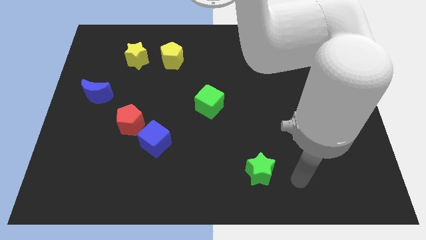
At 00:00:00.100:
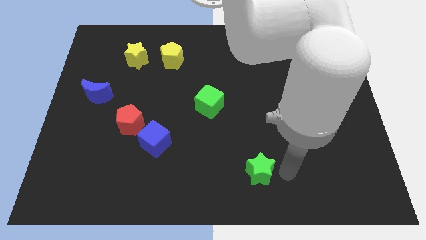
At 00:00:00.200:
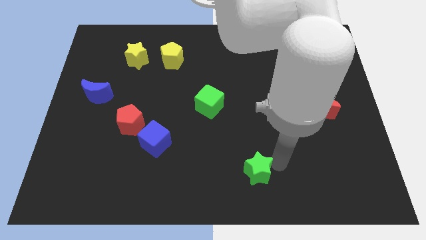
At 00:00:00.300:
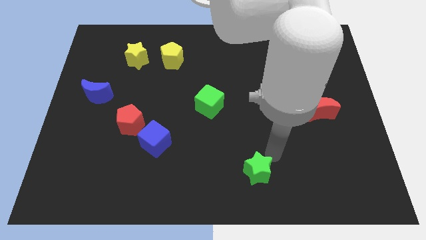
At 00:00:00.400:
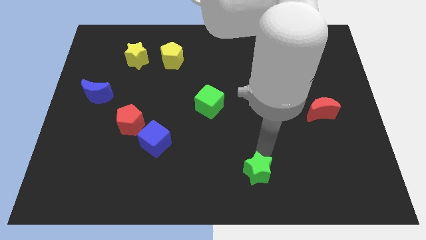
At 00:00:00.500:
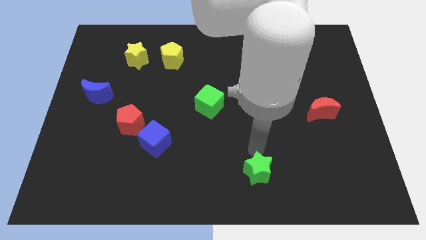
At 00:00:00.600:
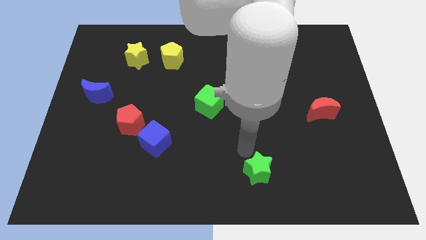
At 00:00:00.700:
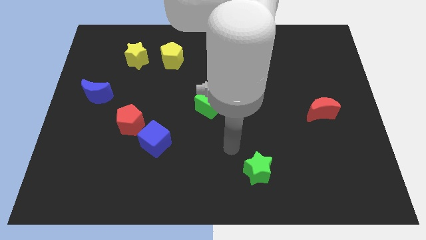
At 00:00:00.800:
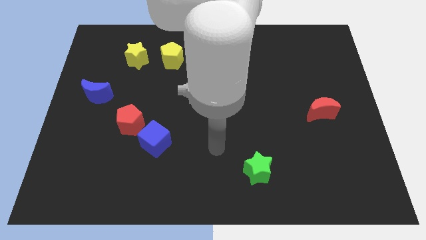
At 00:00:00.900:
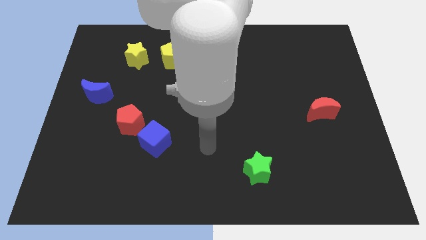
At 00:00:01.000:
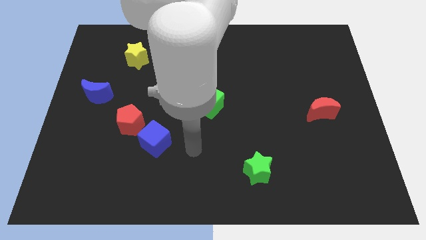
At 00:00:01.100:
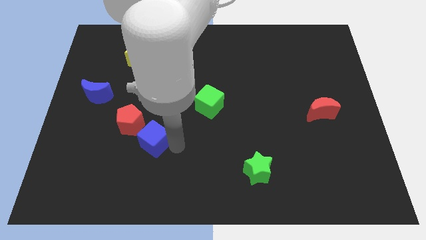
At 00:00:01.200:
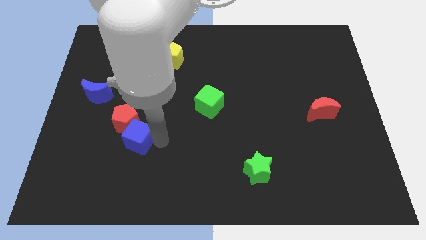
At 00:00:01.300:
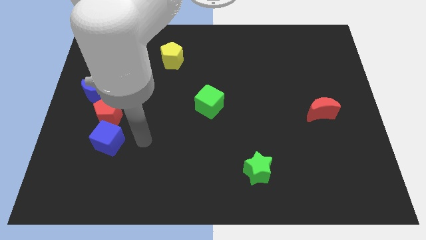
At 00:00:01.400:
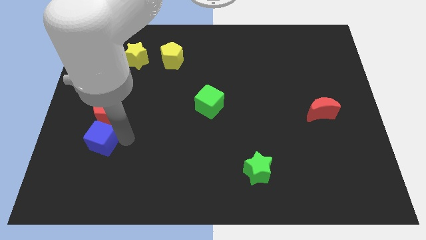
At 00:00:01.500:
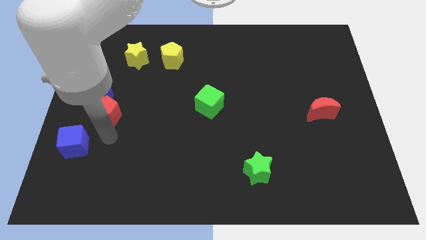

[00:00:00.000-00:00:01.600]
pull the red pentagon apart from the blue cube

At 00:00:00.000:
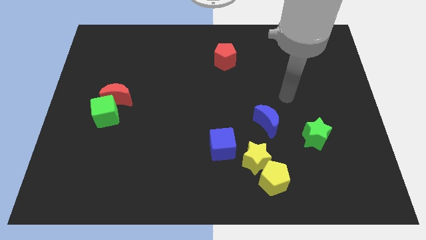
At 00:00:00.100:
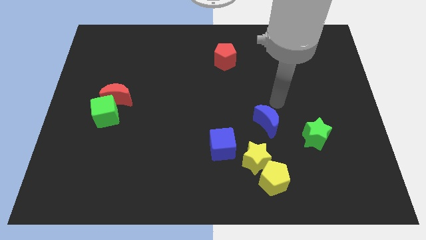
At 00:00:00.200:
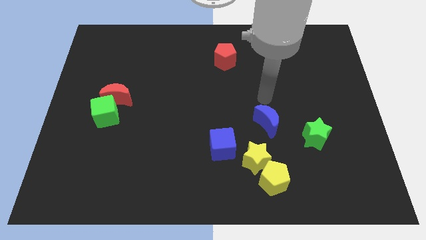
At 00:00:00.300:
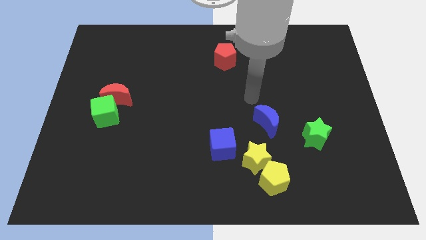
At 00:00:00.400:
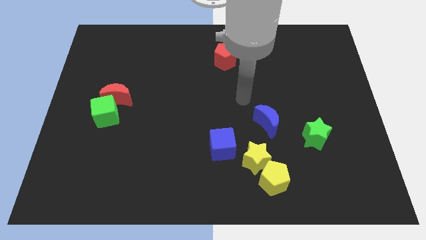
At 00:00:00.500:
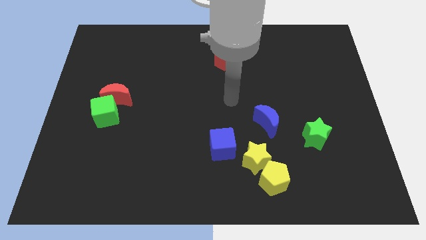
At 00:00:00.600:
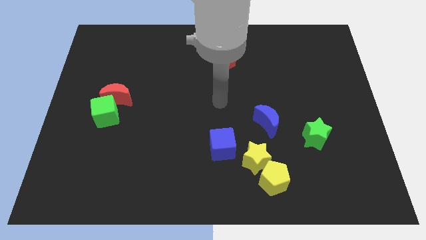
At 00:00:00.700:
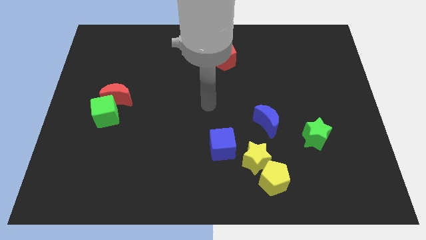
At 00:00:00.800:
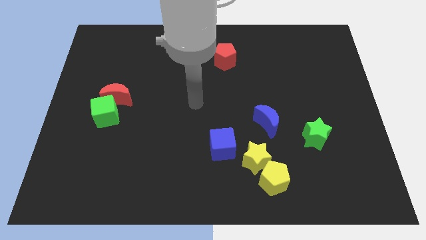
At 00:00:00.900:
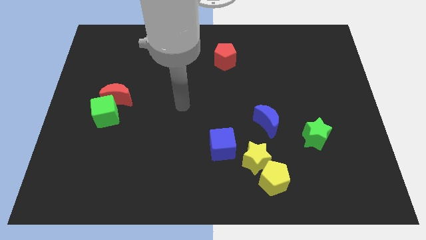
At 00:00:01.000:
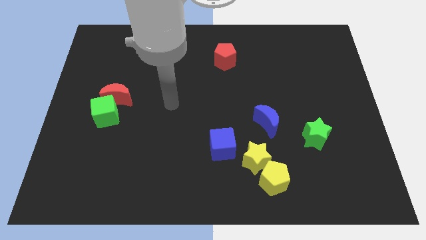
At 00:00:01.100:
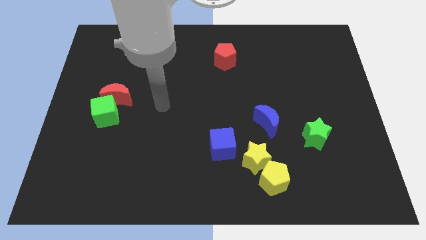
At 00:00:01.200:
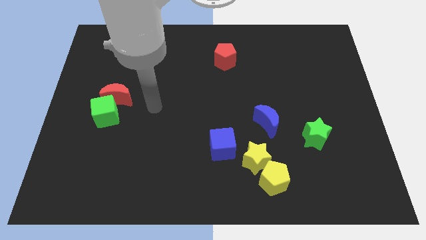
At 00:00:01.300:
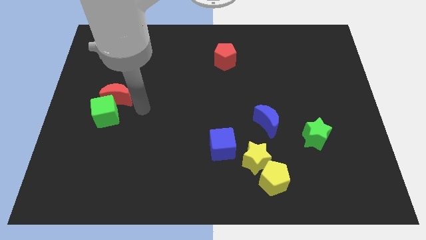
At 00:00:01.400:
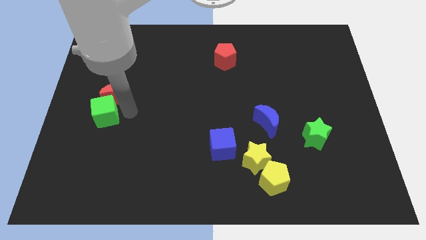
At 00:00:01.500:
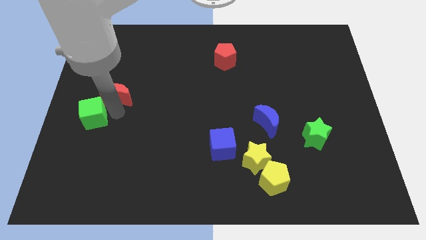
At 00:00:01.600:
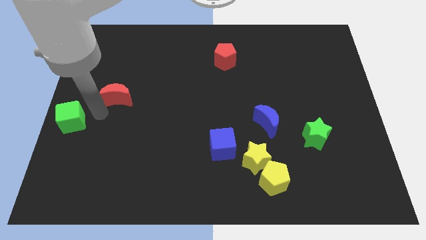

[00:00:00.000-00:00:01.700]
pull the red moon apart from the green cube

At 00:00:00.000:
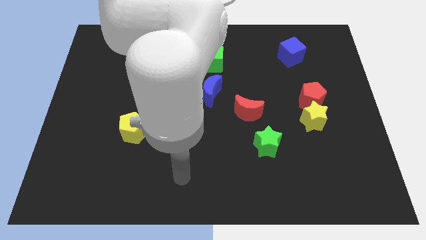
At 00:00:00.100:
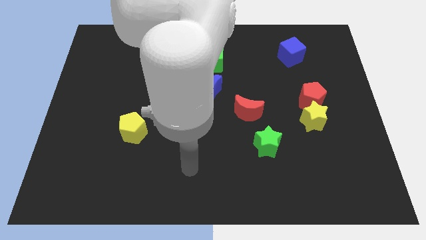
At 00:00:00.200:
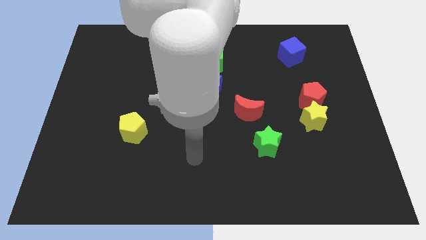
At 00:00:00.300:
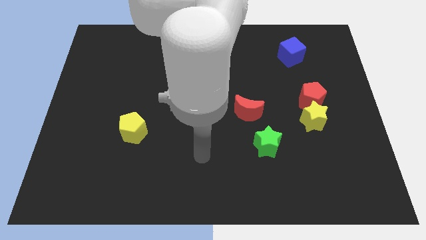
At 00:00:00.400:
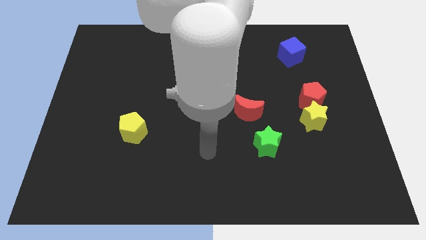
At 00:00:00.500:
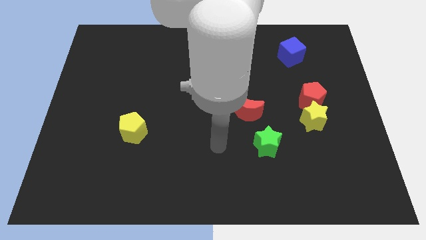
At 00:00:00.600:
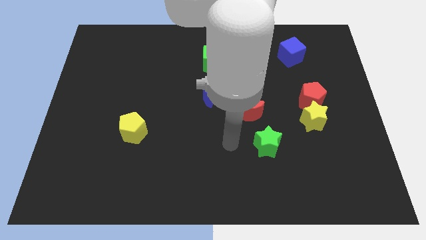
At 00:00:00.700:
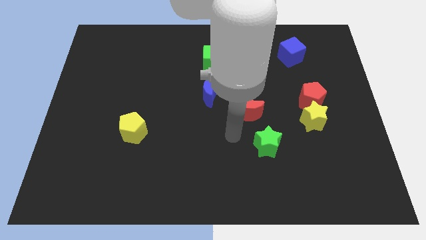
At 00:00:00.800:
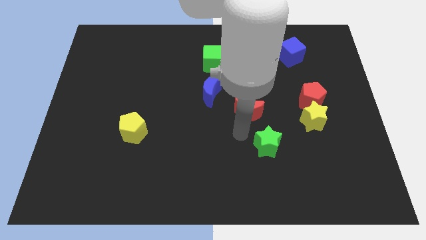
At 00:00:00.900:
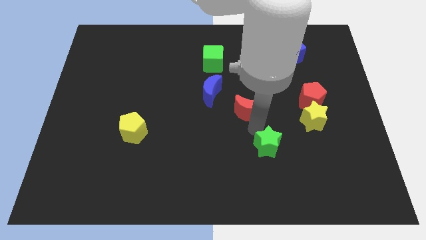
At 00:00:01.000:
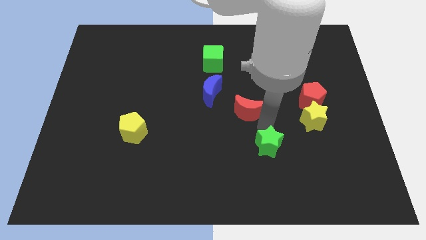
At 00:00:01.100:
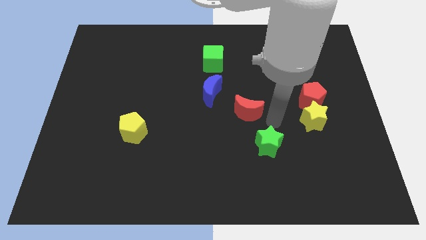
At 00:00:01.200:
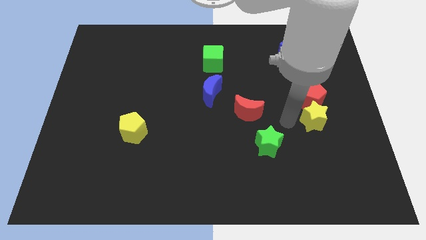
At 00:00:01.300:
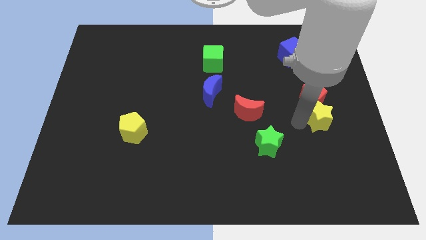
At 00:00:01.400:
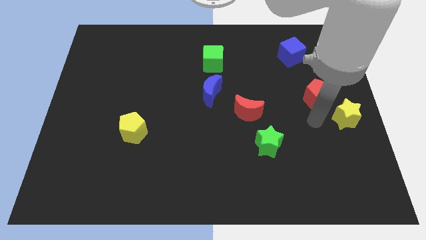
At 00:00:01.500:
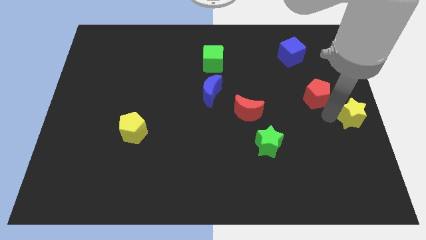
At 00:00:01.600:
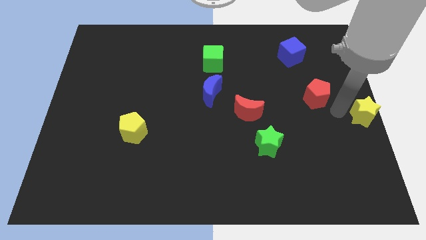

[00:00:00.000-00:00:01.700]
separate the red pentagon from the yellow star

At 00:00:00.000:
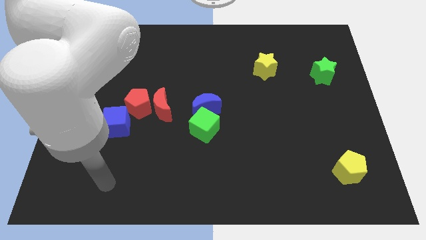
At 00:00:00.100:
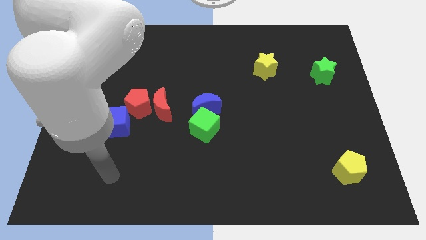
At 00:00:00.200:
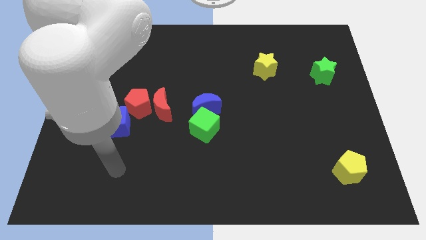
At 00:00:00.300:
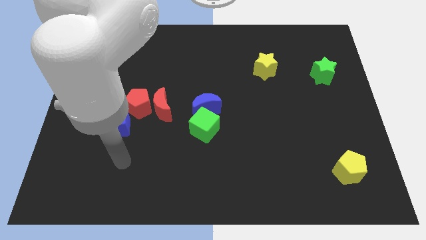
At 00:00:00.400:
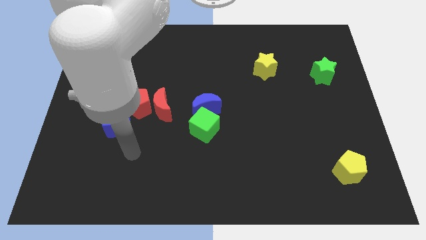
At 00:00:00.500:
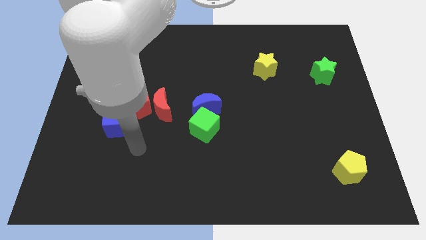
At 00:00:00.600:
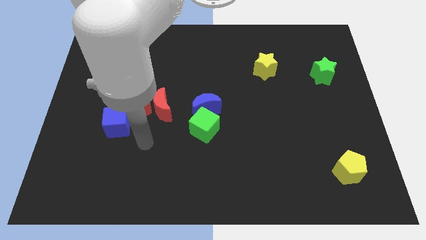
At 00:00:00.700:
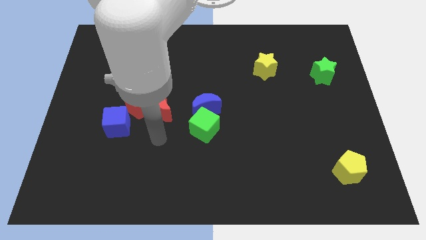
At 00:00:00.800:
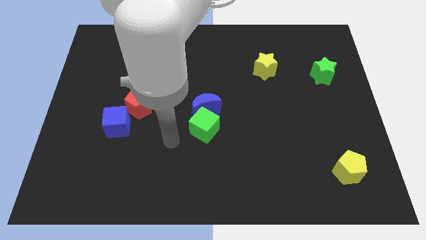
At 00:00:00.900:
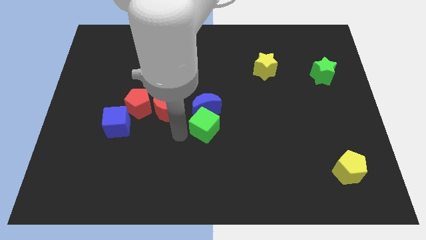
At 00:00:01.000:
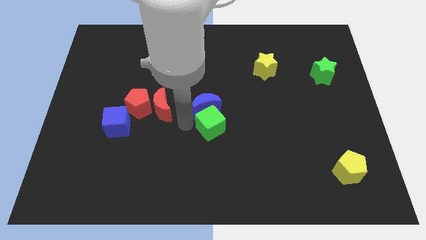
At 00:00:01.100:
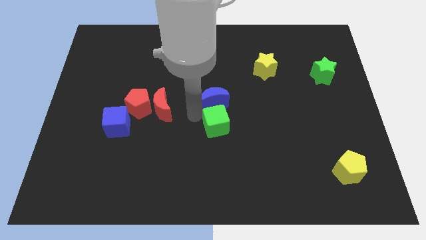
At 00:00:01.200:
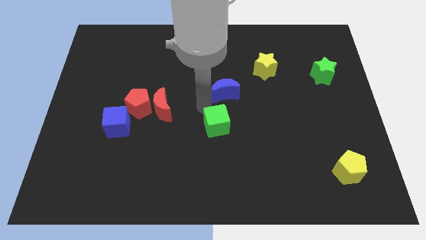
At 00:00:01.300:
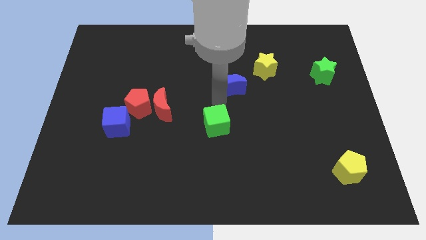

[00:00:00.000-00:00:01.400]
pull the green cube apart from the blue moon

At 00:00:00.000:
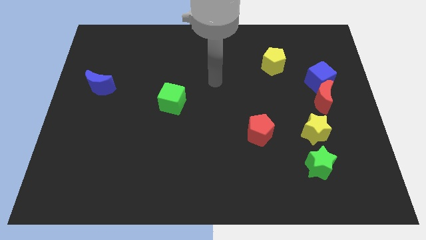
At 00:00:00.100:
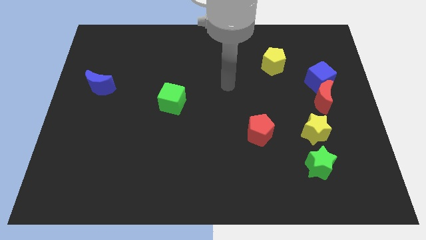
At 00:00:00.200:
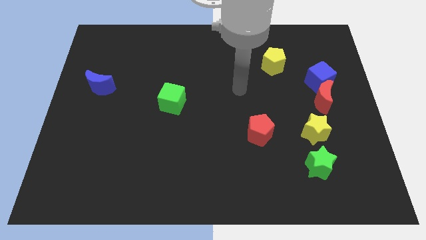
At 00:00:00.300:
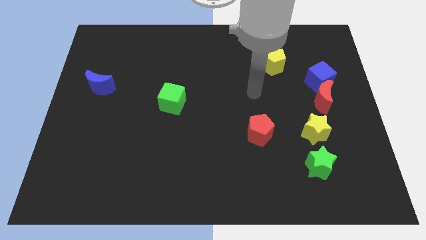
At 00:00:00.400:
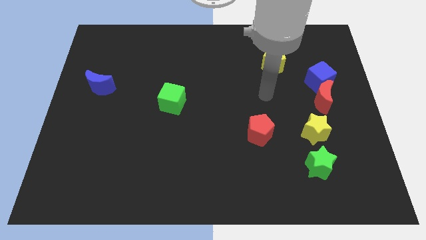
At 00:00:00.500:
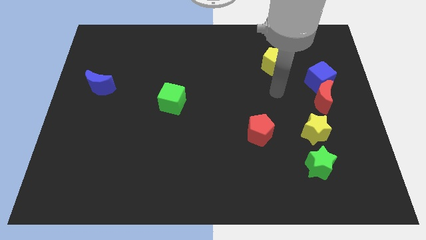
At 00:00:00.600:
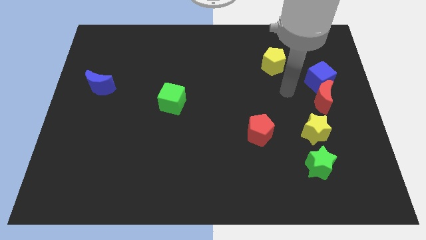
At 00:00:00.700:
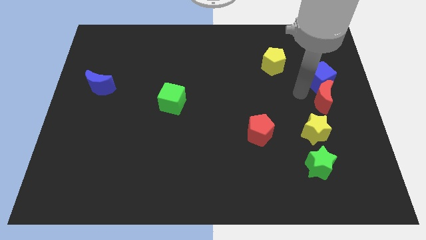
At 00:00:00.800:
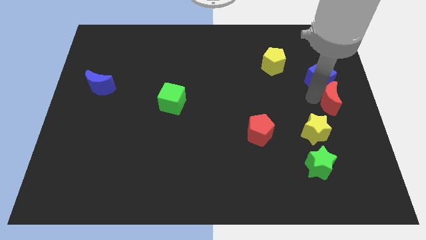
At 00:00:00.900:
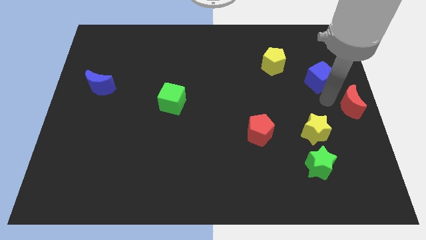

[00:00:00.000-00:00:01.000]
pull the blue cube apart from the red moon

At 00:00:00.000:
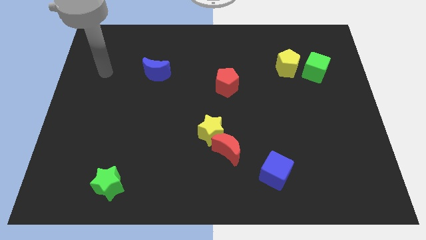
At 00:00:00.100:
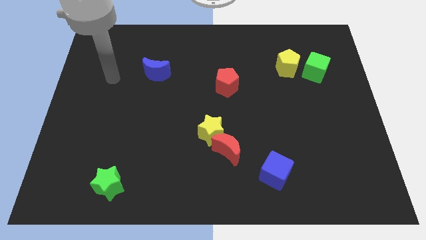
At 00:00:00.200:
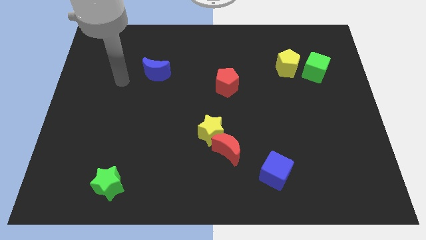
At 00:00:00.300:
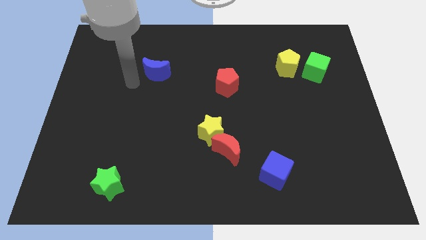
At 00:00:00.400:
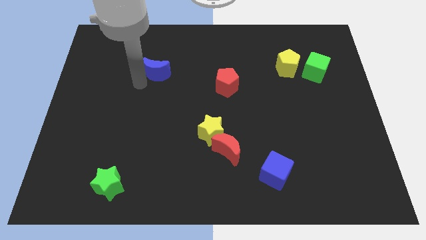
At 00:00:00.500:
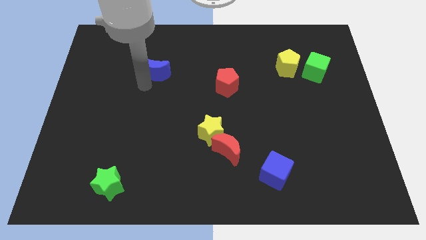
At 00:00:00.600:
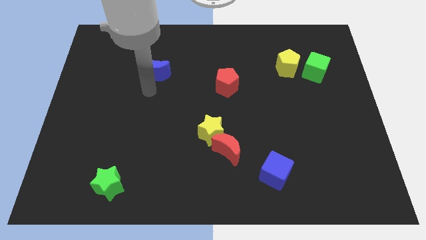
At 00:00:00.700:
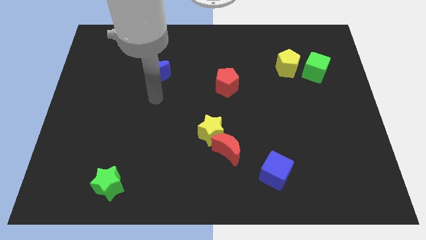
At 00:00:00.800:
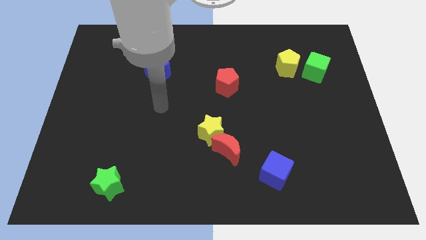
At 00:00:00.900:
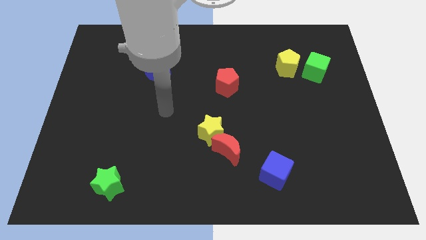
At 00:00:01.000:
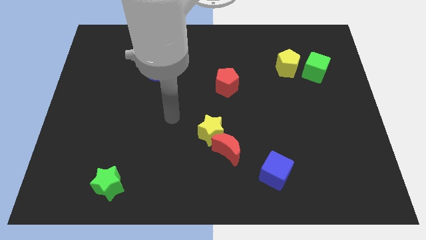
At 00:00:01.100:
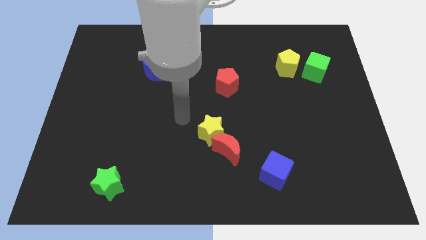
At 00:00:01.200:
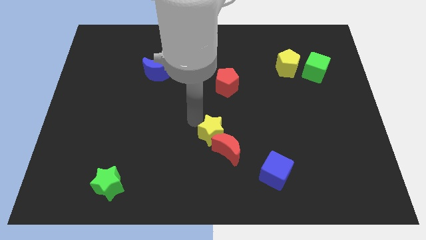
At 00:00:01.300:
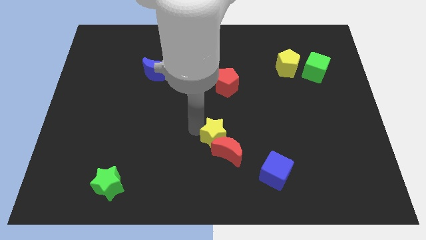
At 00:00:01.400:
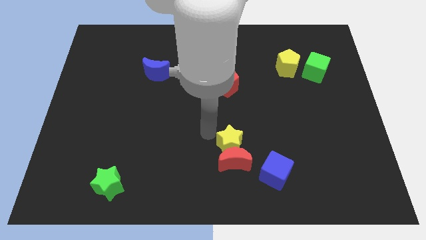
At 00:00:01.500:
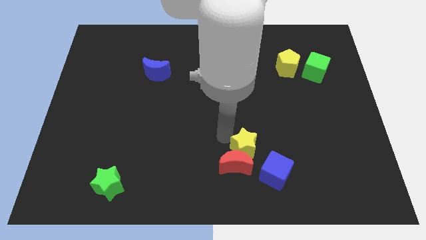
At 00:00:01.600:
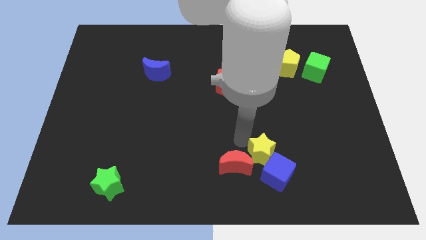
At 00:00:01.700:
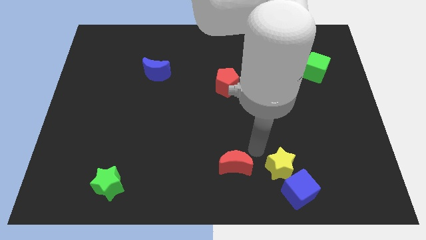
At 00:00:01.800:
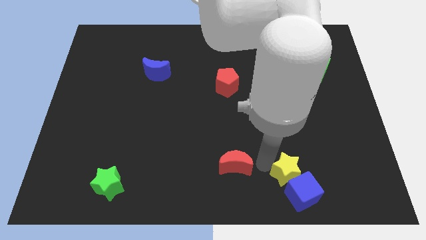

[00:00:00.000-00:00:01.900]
pull the red moon apart from the yellow star
